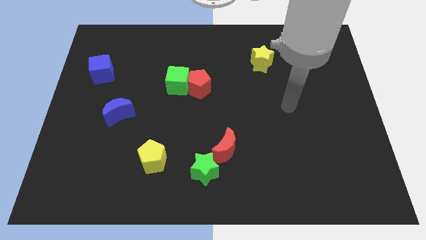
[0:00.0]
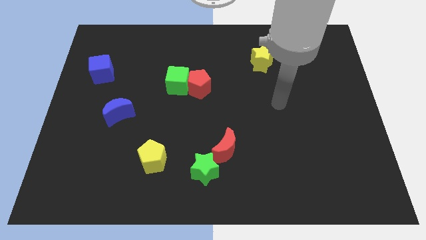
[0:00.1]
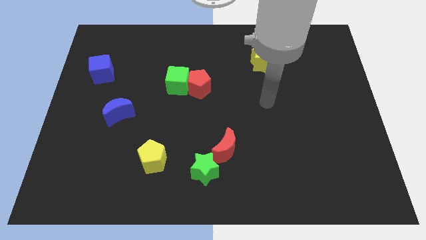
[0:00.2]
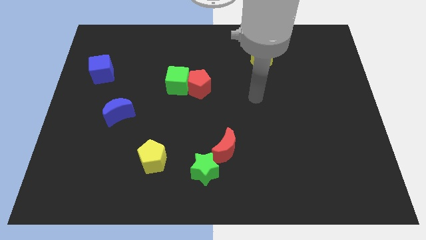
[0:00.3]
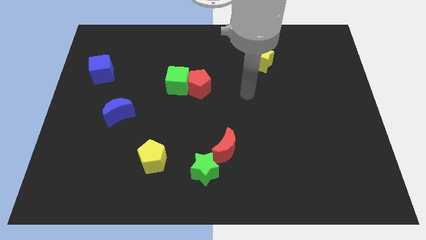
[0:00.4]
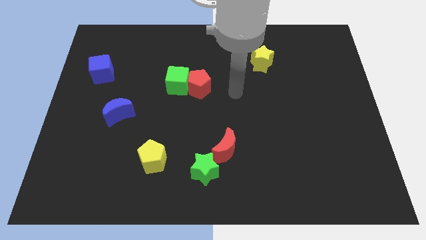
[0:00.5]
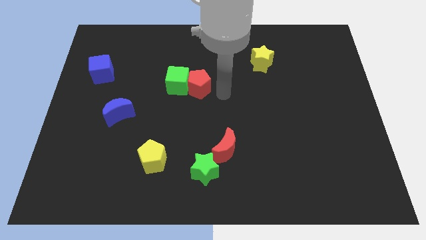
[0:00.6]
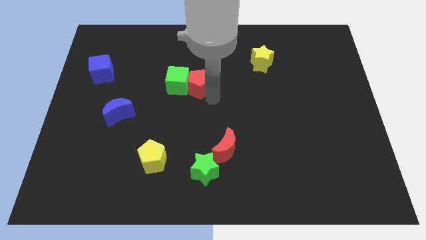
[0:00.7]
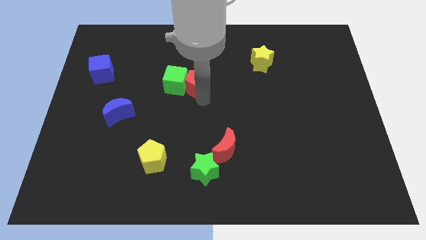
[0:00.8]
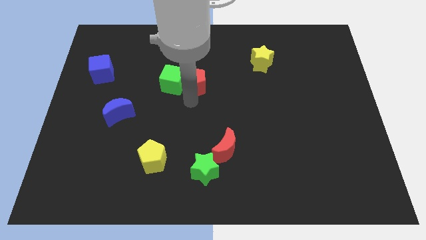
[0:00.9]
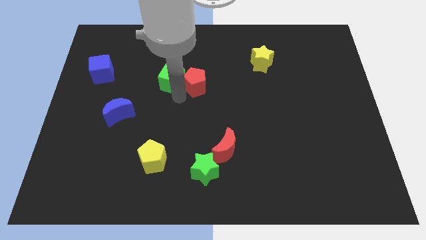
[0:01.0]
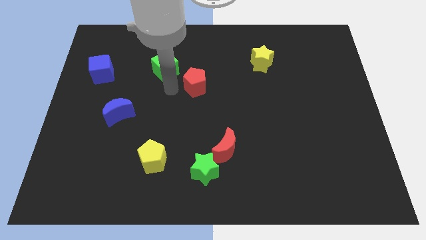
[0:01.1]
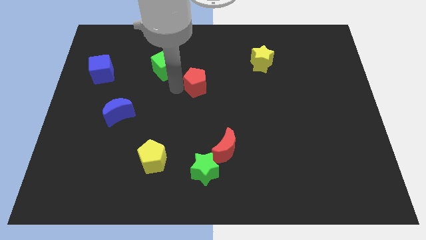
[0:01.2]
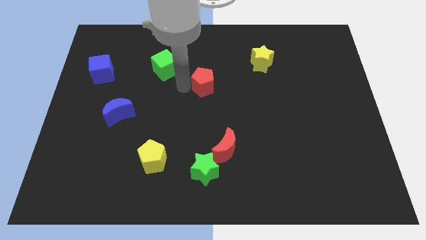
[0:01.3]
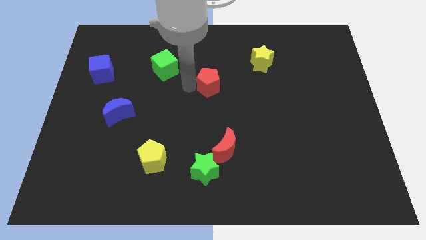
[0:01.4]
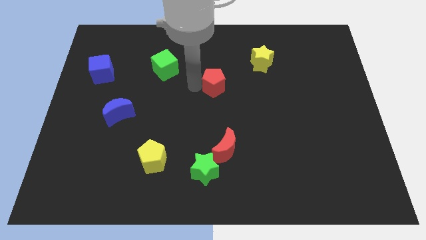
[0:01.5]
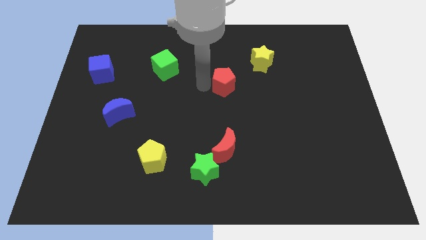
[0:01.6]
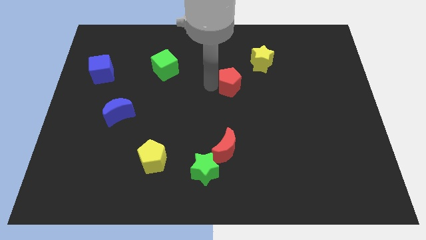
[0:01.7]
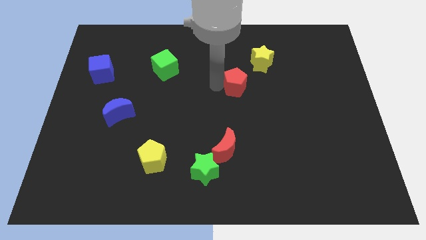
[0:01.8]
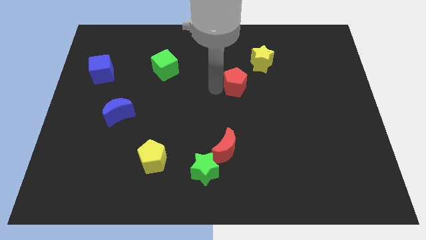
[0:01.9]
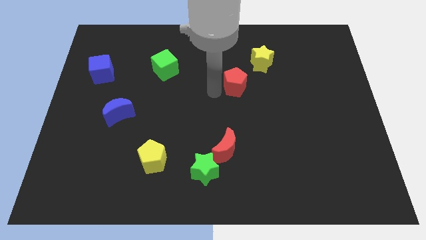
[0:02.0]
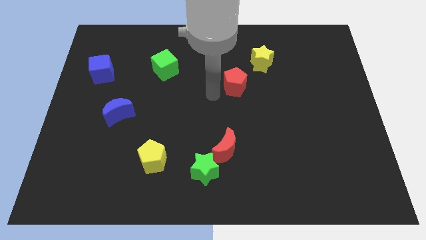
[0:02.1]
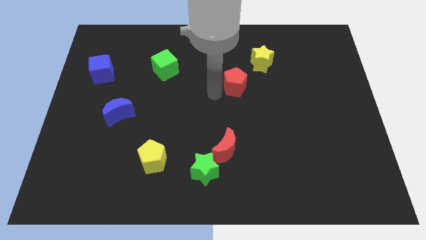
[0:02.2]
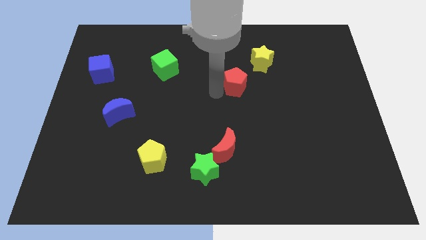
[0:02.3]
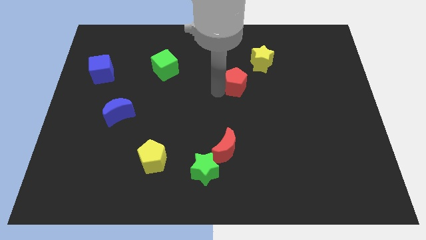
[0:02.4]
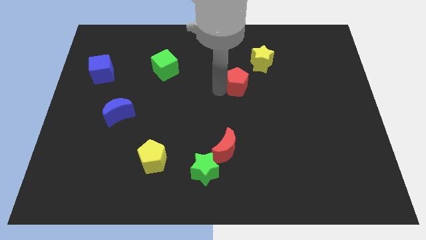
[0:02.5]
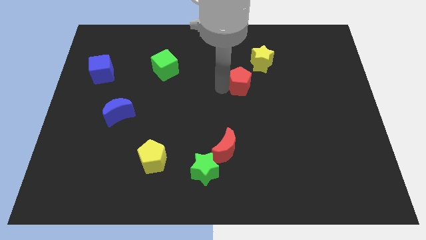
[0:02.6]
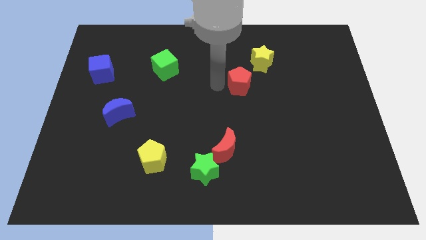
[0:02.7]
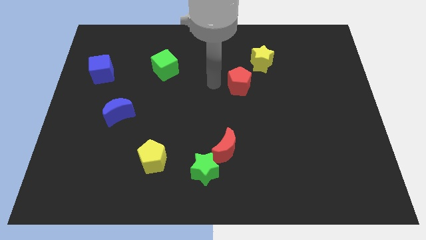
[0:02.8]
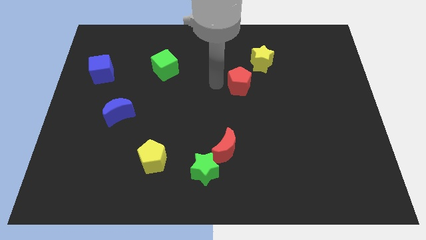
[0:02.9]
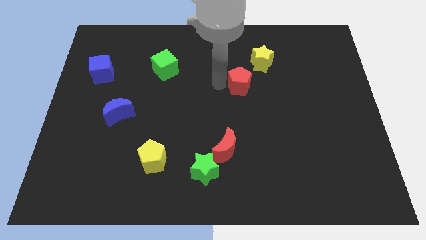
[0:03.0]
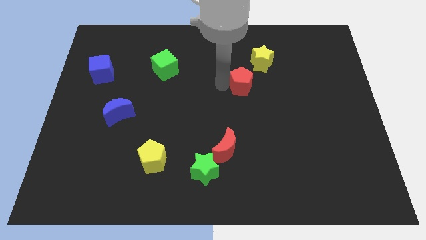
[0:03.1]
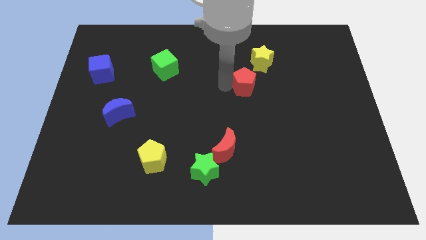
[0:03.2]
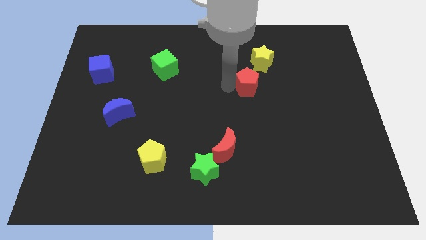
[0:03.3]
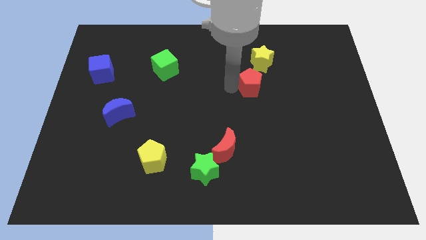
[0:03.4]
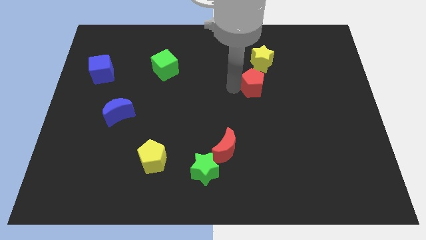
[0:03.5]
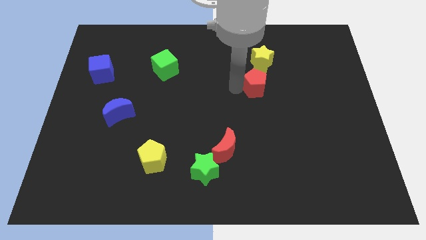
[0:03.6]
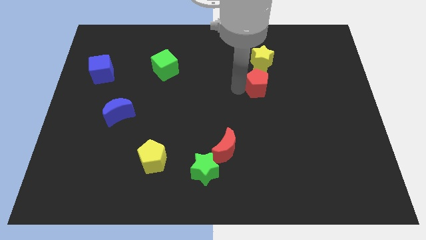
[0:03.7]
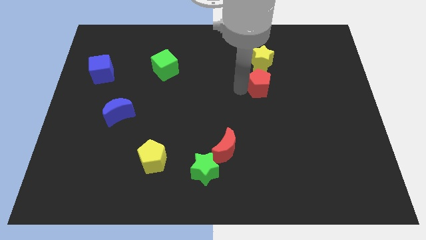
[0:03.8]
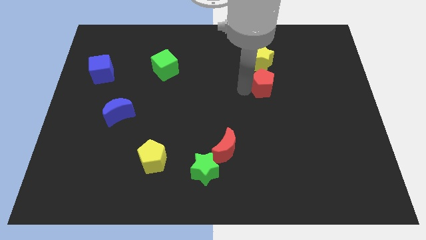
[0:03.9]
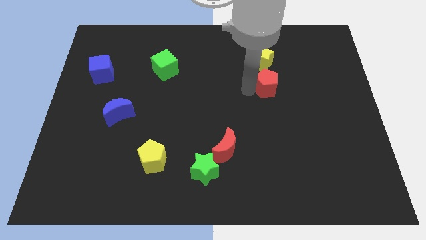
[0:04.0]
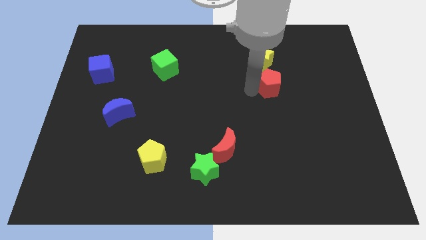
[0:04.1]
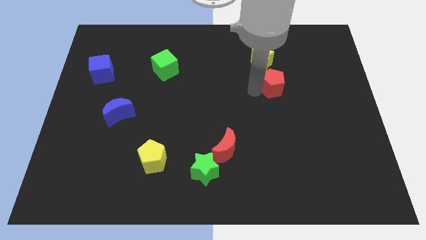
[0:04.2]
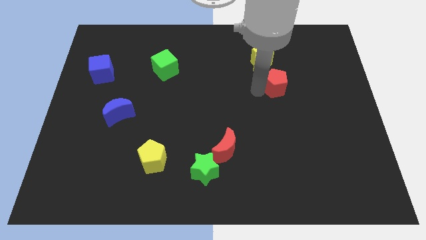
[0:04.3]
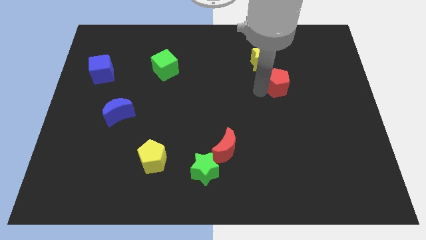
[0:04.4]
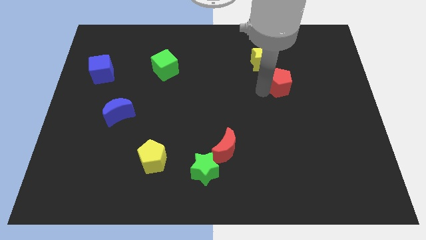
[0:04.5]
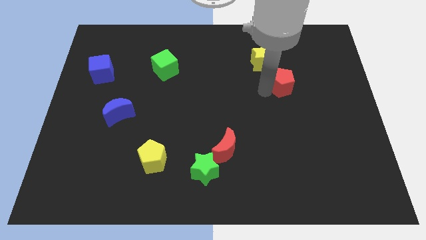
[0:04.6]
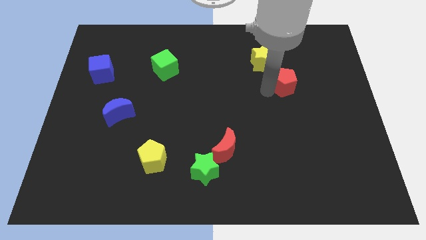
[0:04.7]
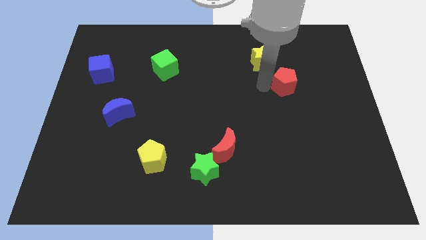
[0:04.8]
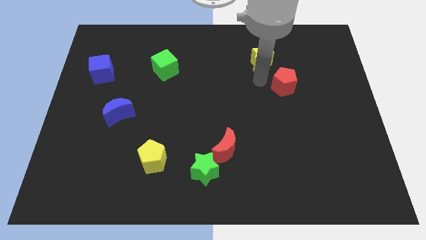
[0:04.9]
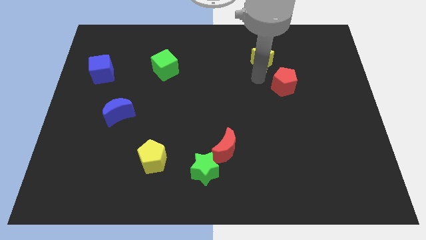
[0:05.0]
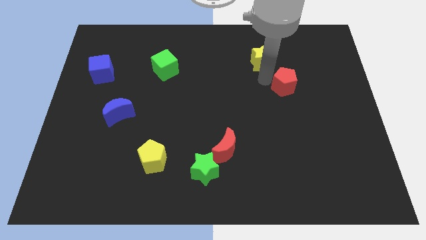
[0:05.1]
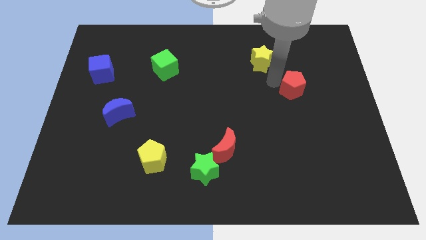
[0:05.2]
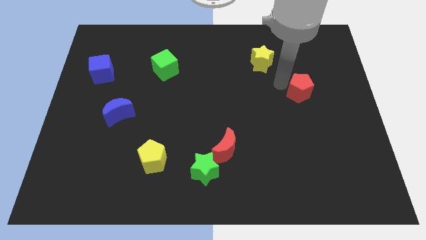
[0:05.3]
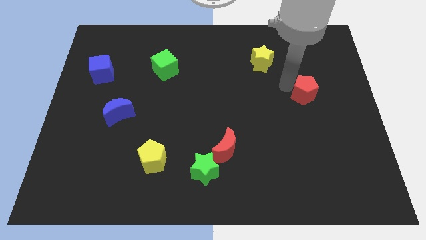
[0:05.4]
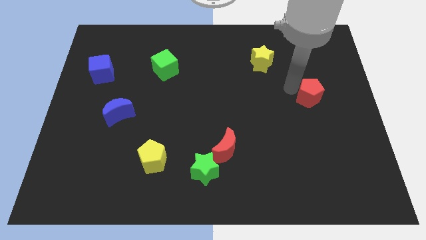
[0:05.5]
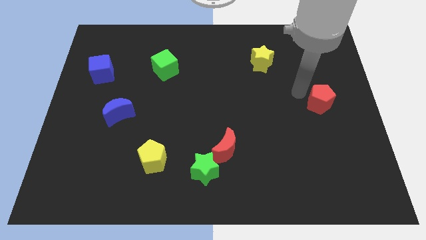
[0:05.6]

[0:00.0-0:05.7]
move the red pentagon to the right side

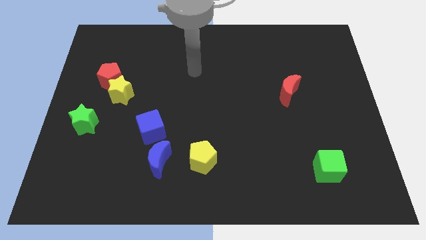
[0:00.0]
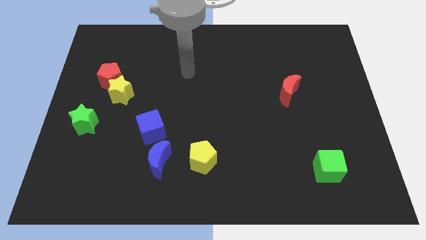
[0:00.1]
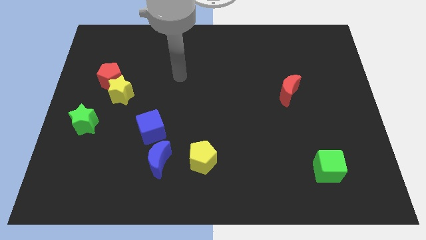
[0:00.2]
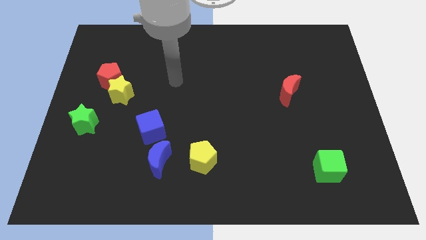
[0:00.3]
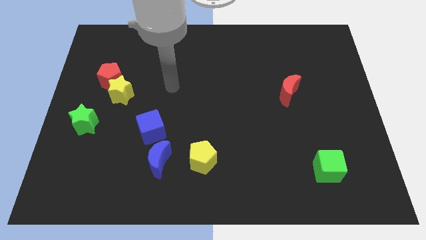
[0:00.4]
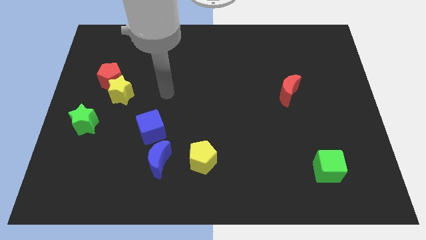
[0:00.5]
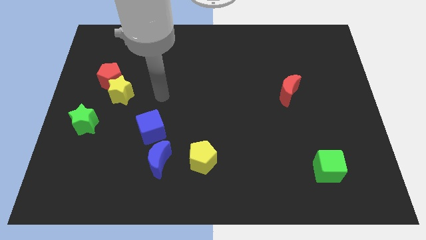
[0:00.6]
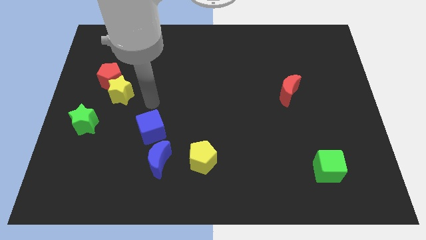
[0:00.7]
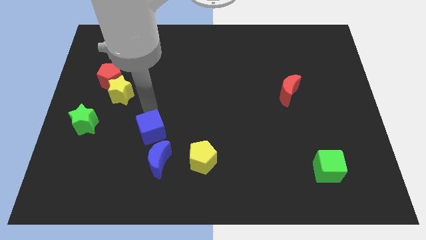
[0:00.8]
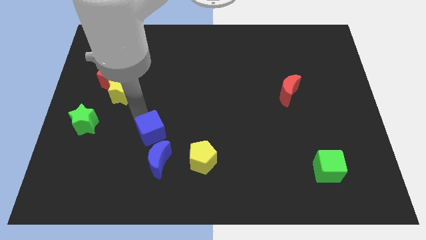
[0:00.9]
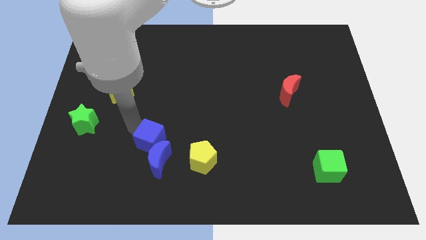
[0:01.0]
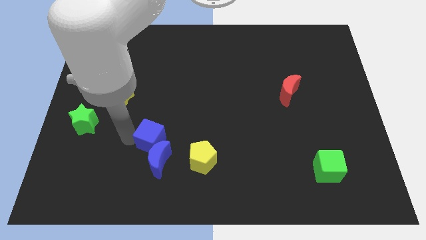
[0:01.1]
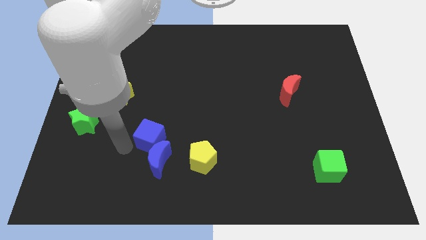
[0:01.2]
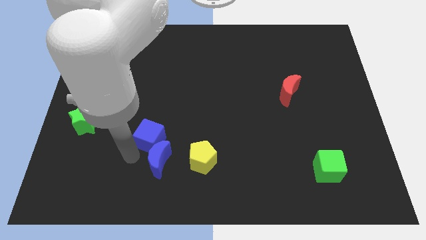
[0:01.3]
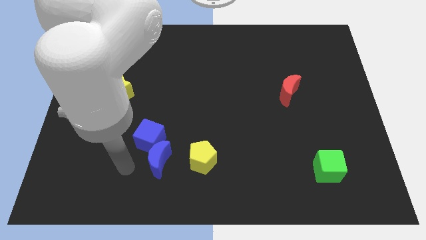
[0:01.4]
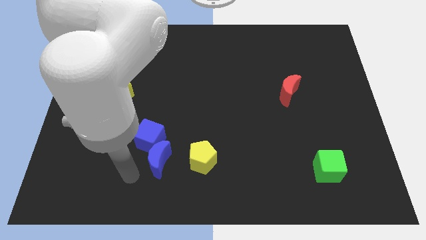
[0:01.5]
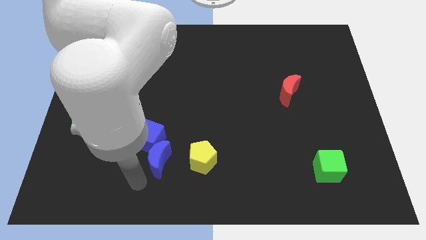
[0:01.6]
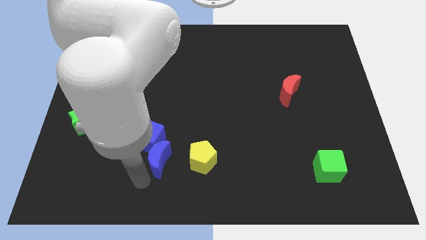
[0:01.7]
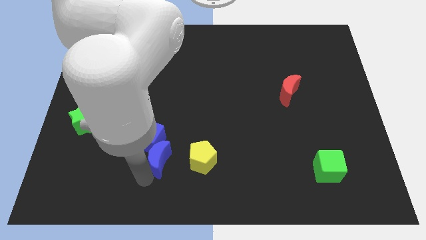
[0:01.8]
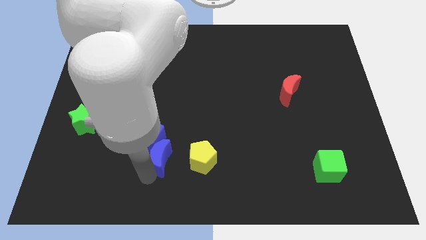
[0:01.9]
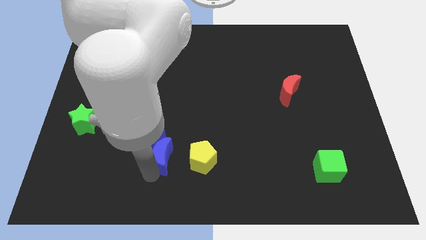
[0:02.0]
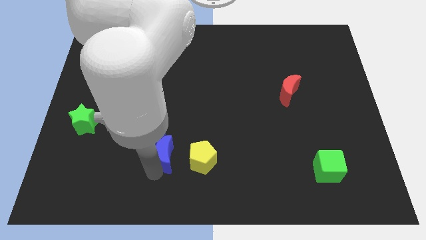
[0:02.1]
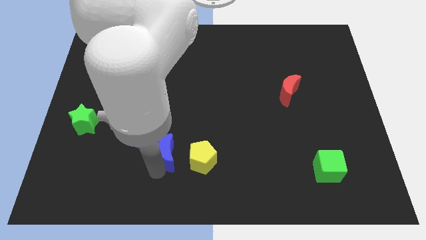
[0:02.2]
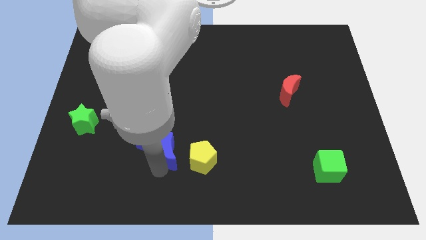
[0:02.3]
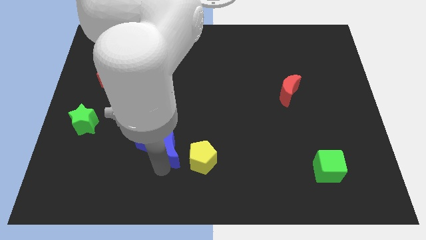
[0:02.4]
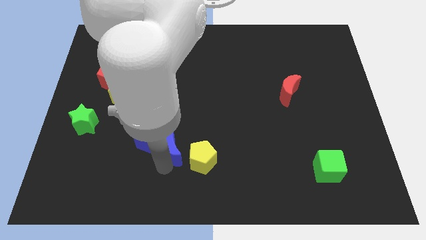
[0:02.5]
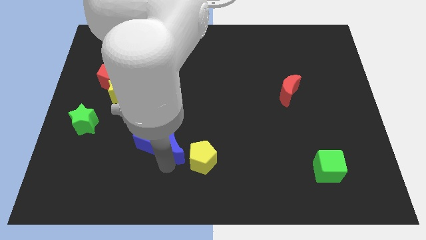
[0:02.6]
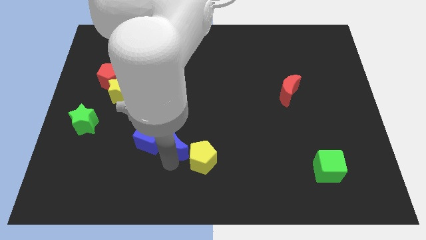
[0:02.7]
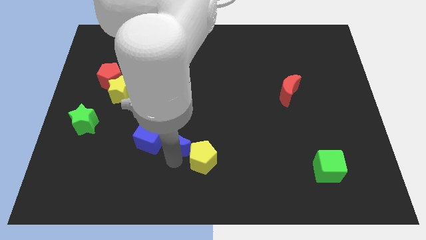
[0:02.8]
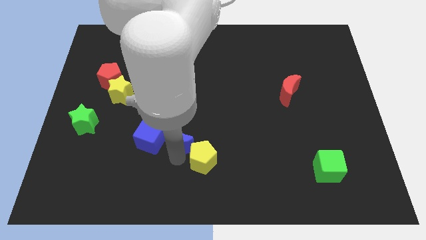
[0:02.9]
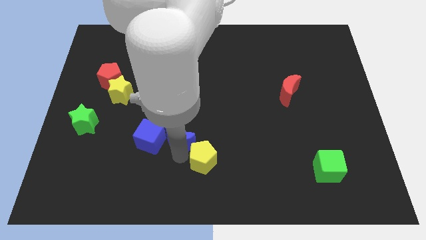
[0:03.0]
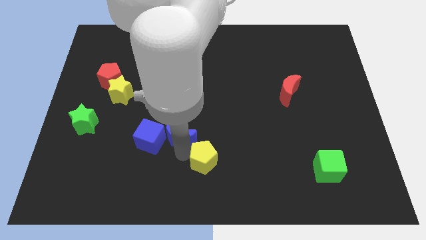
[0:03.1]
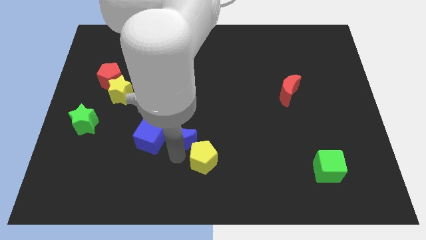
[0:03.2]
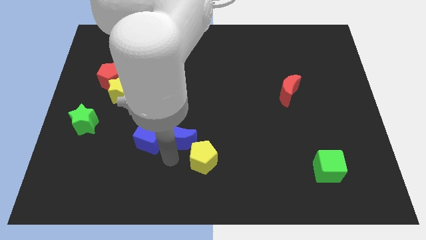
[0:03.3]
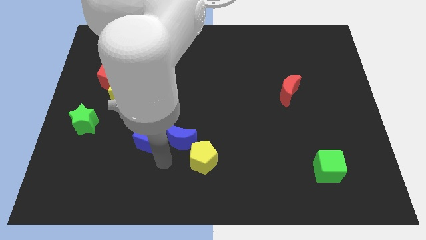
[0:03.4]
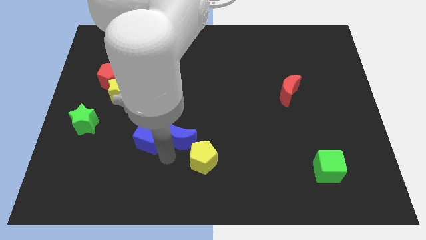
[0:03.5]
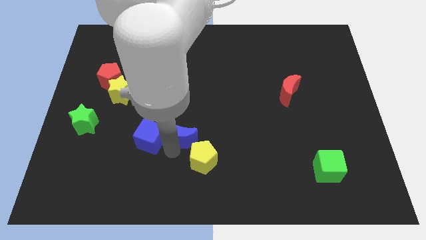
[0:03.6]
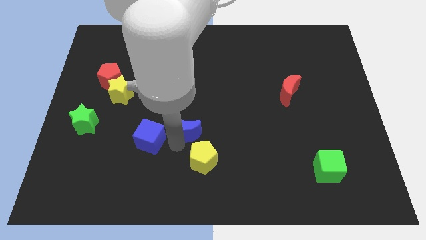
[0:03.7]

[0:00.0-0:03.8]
put the blue moon to the middle
